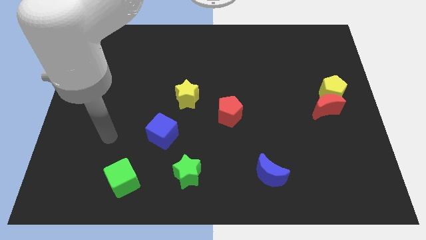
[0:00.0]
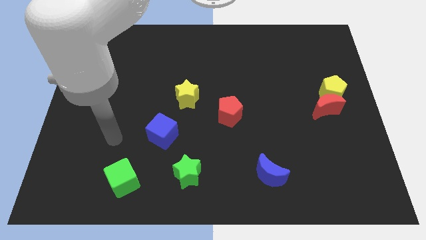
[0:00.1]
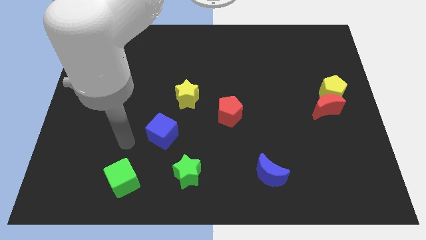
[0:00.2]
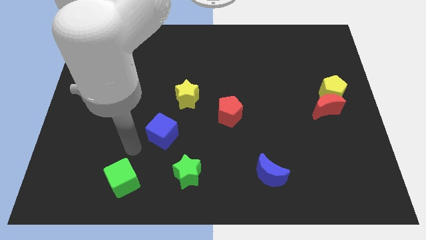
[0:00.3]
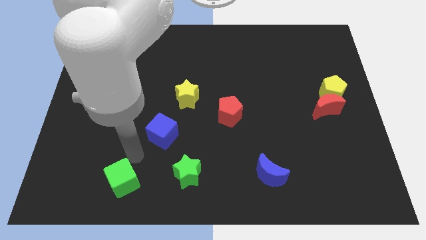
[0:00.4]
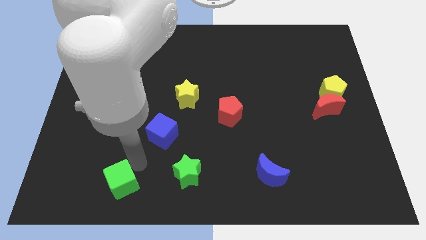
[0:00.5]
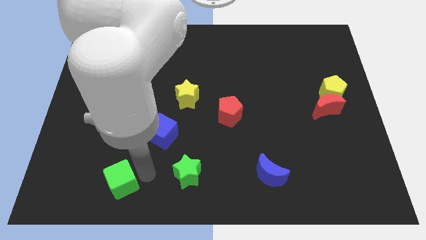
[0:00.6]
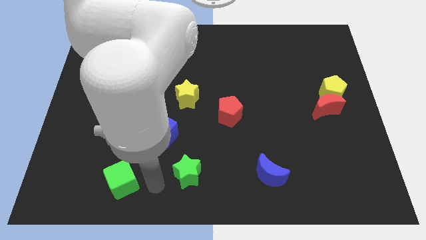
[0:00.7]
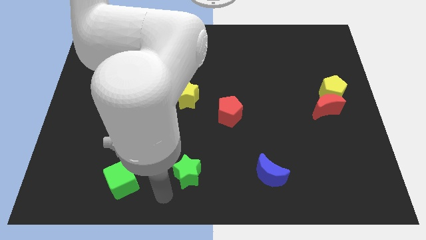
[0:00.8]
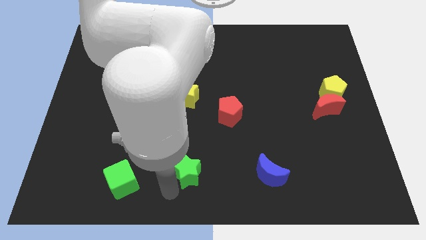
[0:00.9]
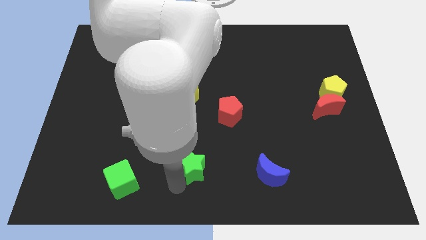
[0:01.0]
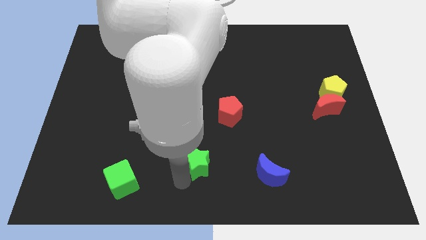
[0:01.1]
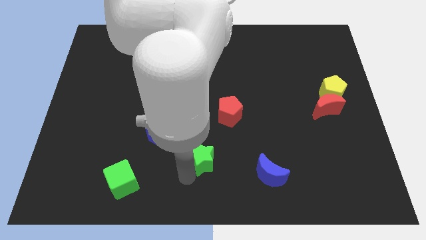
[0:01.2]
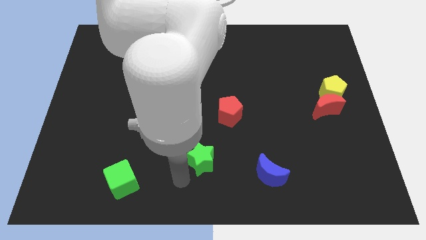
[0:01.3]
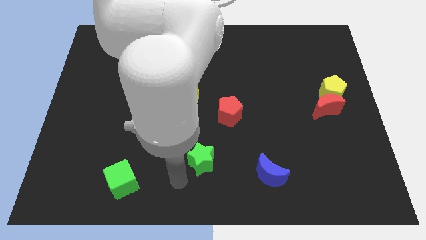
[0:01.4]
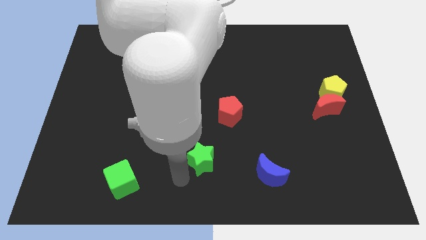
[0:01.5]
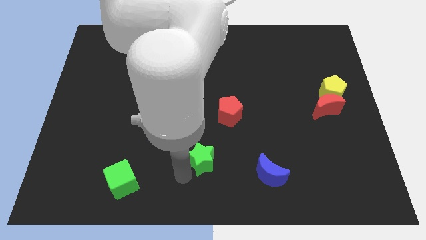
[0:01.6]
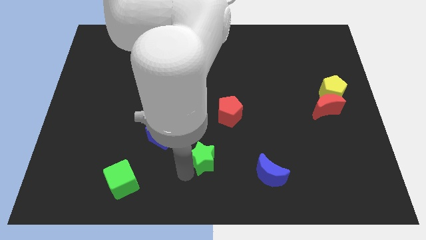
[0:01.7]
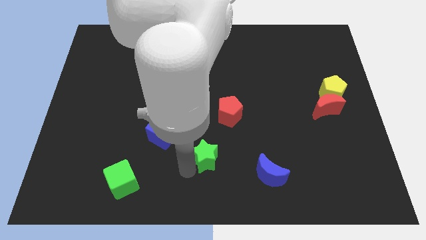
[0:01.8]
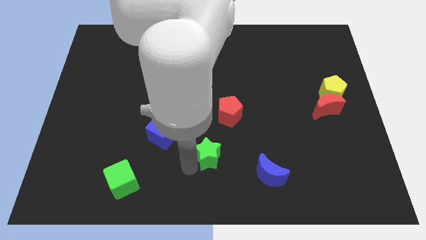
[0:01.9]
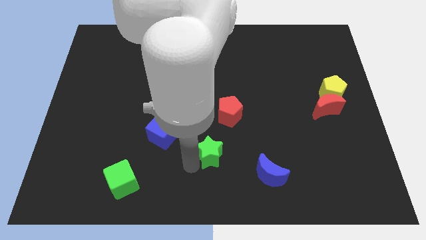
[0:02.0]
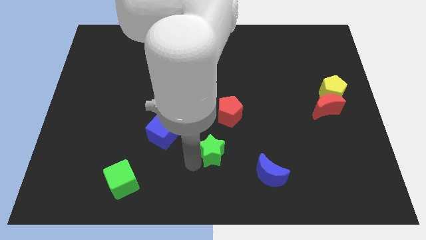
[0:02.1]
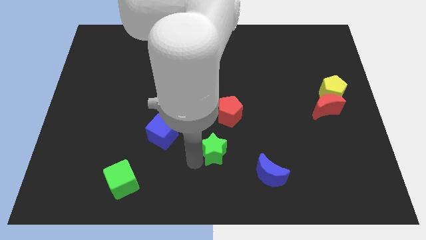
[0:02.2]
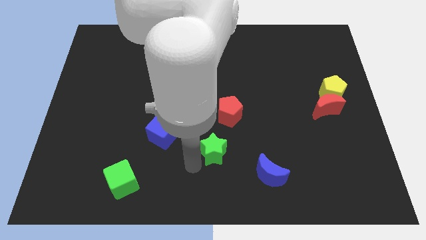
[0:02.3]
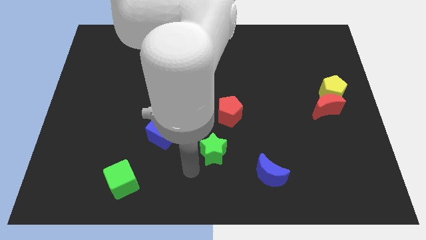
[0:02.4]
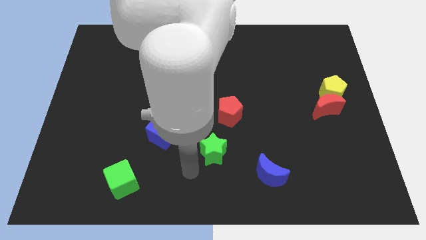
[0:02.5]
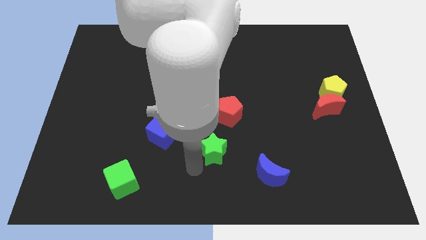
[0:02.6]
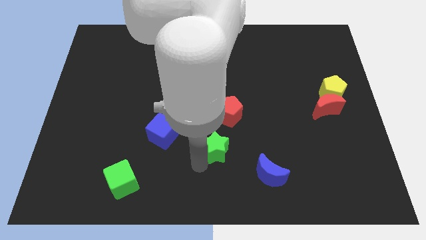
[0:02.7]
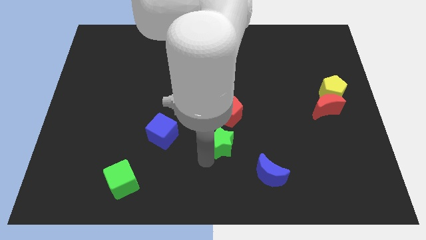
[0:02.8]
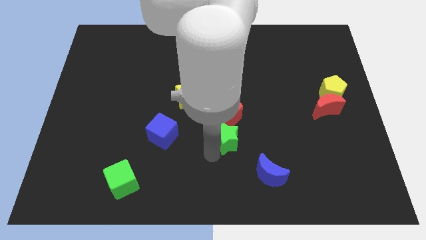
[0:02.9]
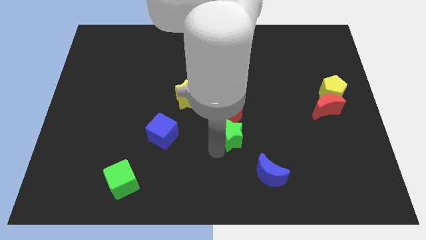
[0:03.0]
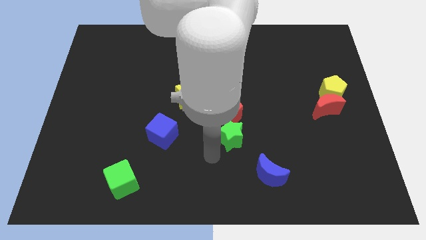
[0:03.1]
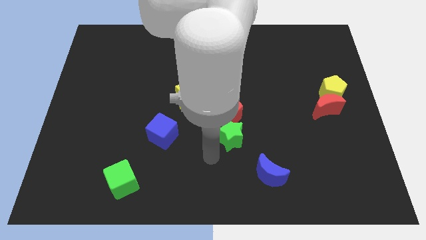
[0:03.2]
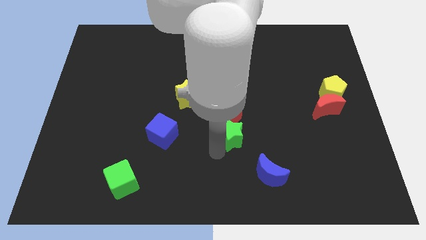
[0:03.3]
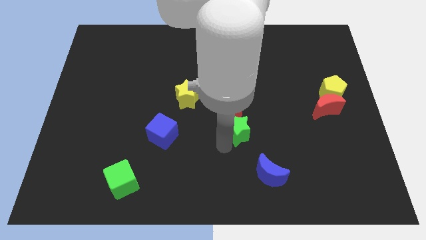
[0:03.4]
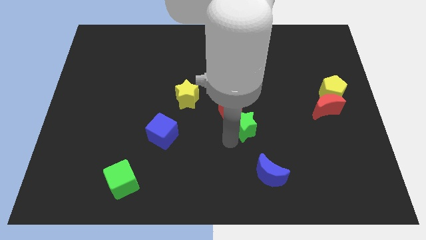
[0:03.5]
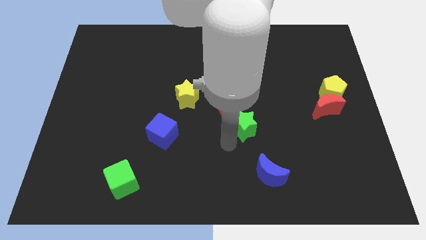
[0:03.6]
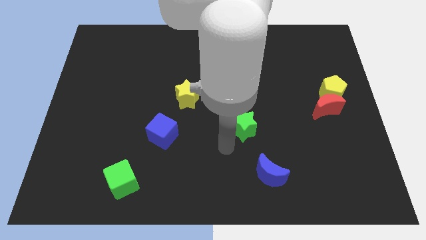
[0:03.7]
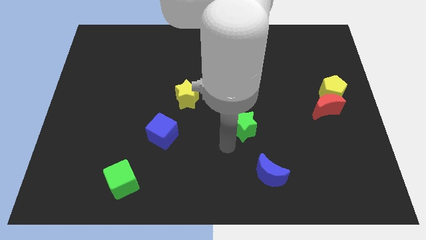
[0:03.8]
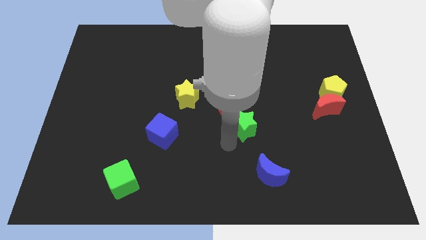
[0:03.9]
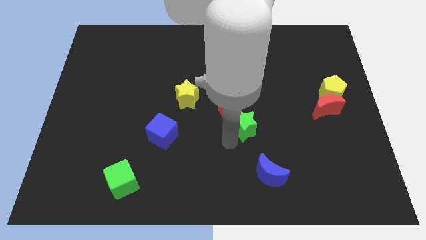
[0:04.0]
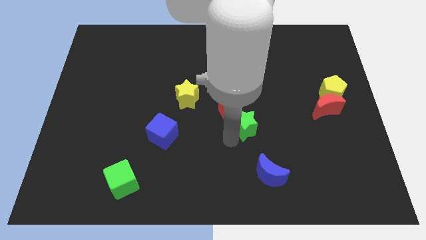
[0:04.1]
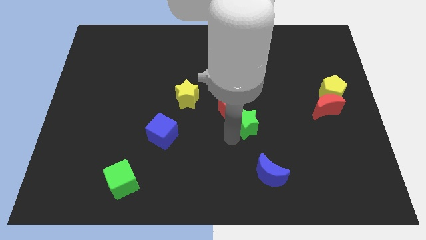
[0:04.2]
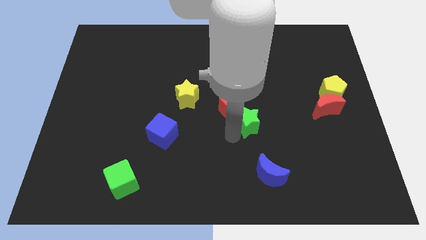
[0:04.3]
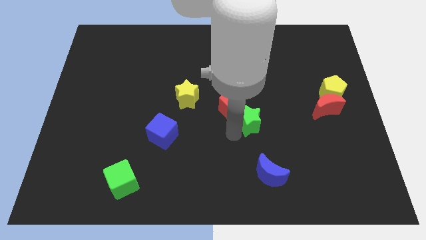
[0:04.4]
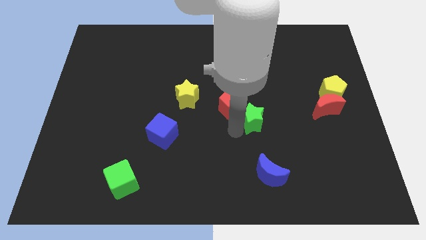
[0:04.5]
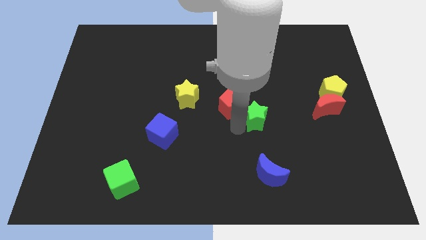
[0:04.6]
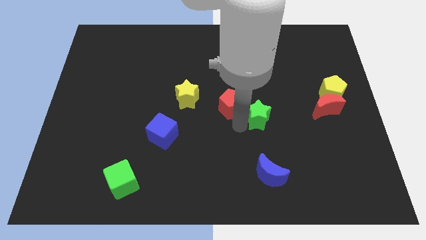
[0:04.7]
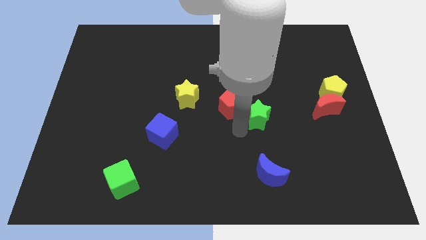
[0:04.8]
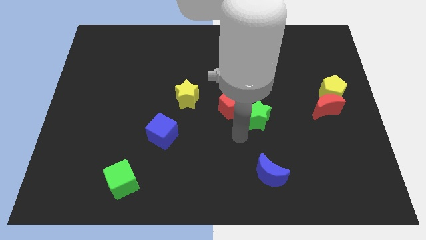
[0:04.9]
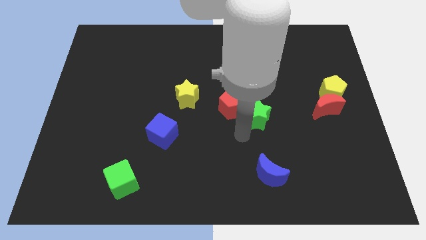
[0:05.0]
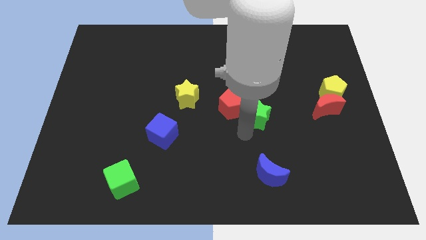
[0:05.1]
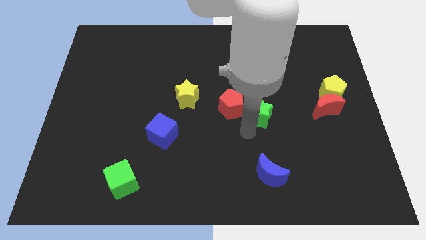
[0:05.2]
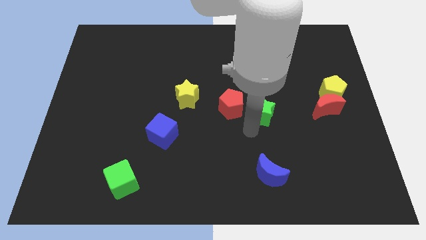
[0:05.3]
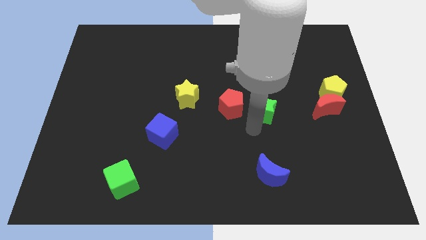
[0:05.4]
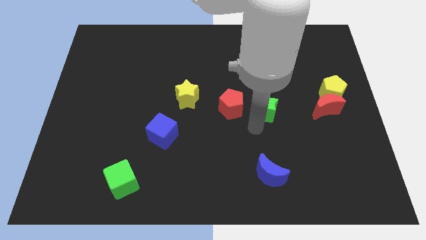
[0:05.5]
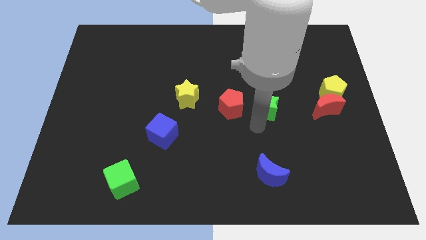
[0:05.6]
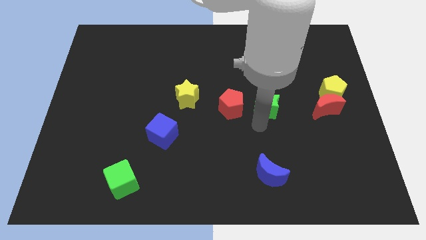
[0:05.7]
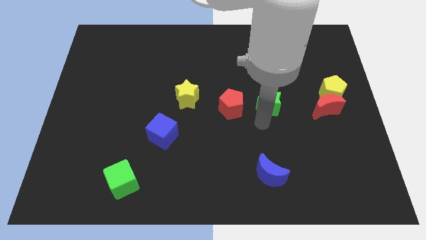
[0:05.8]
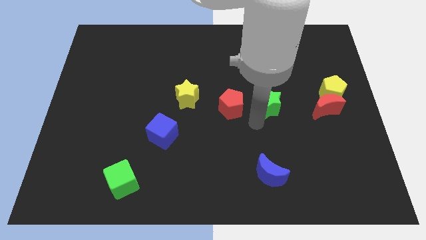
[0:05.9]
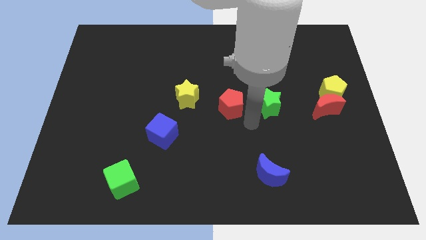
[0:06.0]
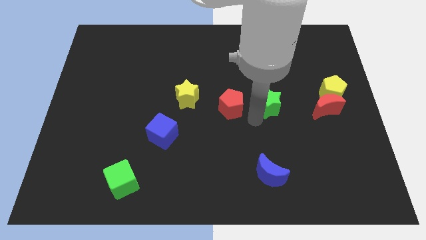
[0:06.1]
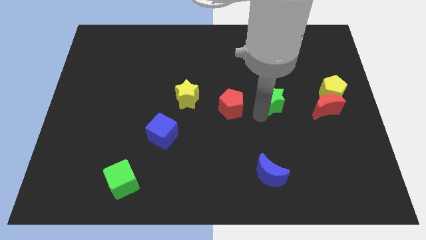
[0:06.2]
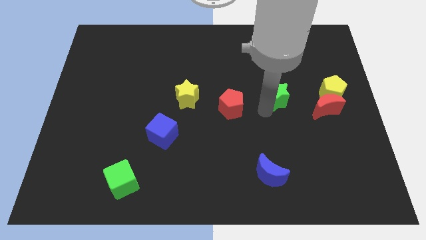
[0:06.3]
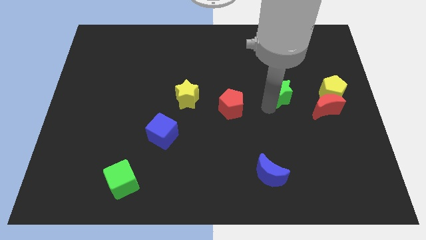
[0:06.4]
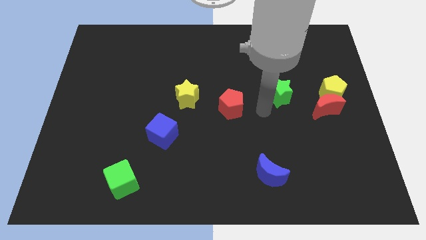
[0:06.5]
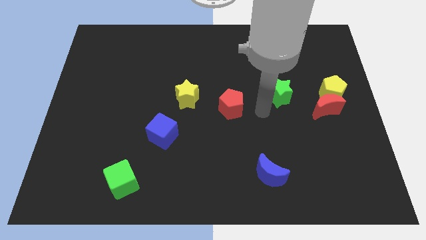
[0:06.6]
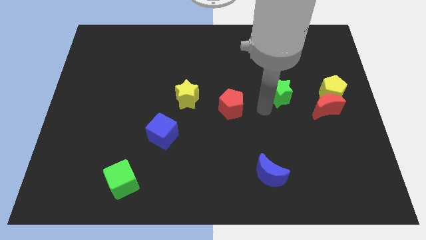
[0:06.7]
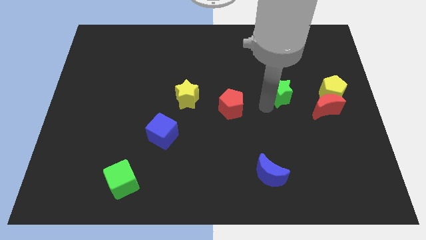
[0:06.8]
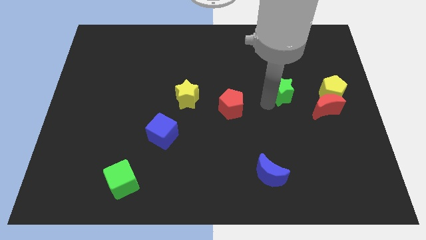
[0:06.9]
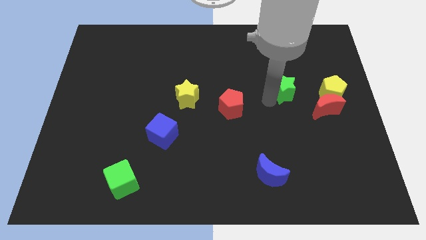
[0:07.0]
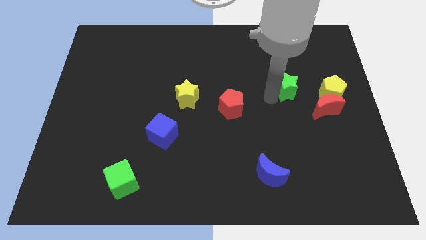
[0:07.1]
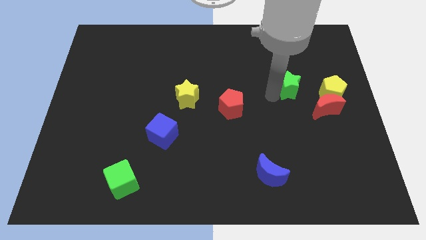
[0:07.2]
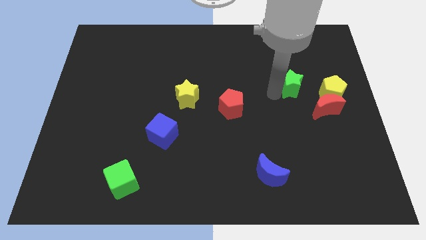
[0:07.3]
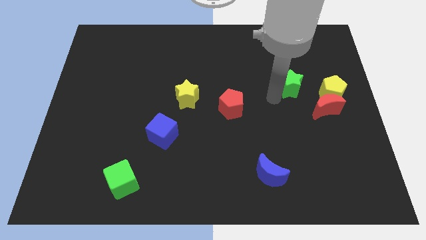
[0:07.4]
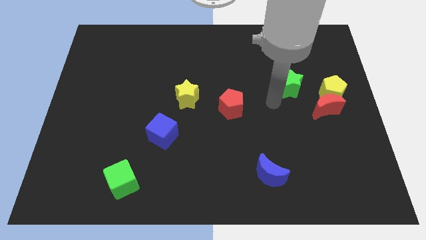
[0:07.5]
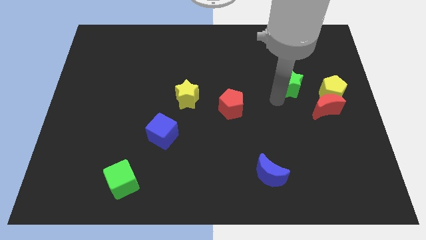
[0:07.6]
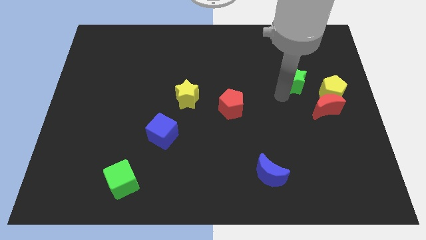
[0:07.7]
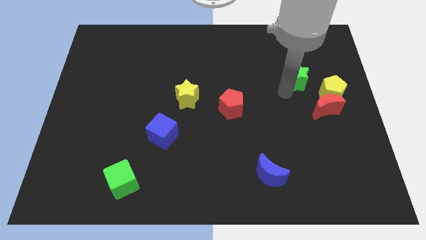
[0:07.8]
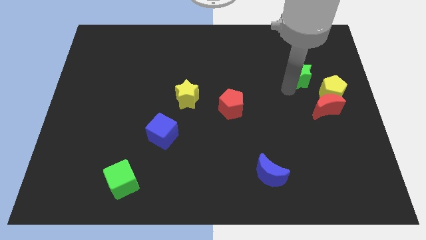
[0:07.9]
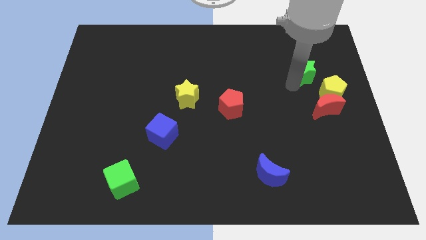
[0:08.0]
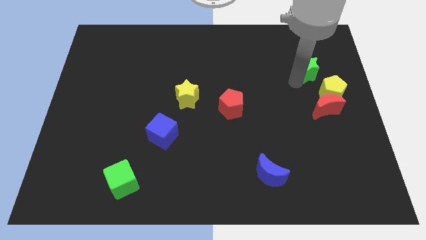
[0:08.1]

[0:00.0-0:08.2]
slide the green star to the top side of the yellow pentagon
